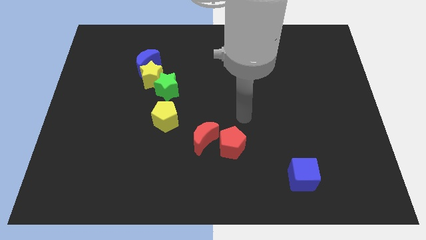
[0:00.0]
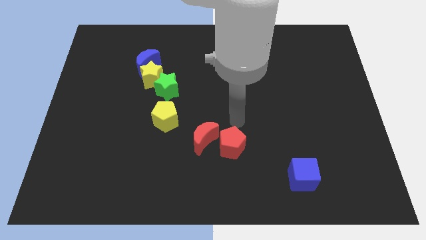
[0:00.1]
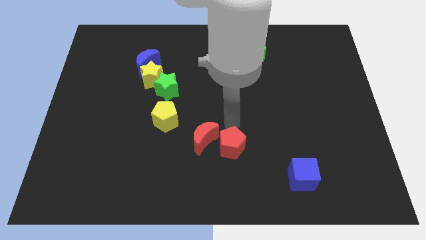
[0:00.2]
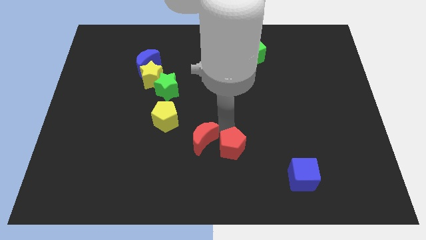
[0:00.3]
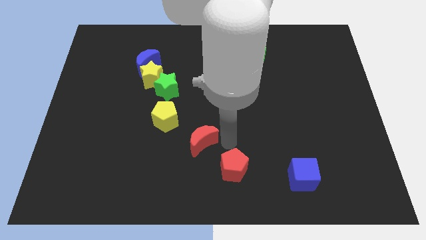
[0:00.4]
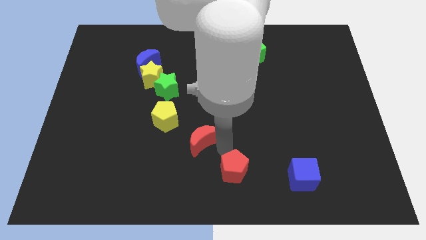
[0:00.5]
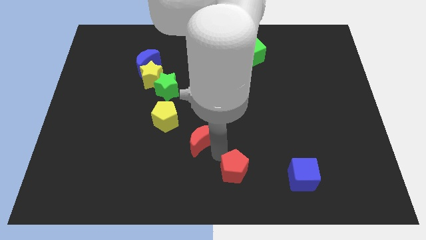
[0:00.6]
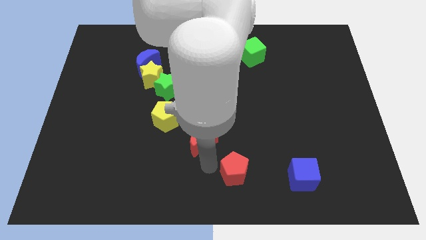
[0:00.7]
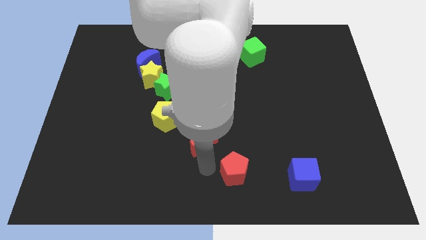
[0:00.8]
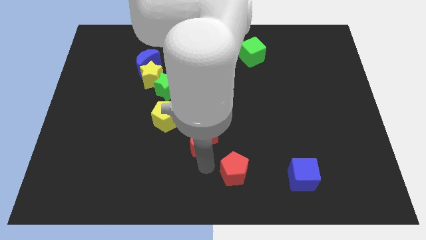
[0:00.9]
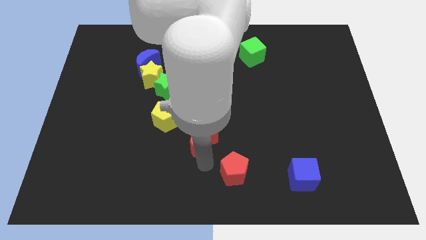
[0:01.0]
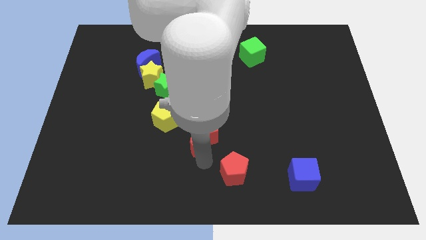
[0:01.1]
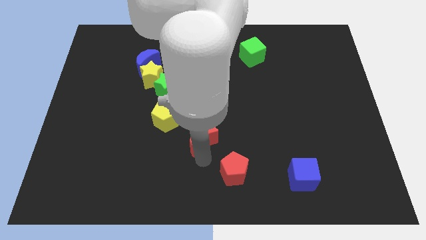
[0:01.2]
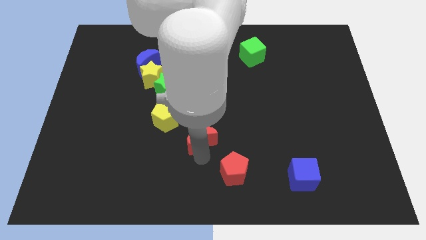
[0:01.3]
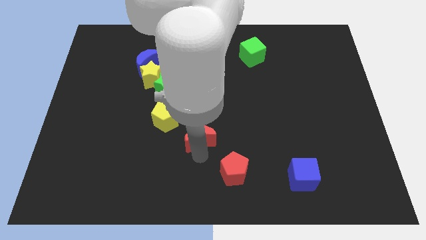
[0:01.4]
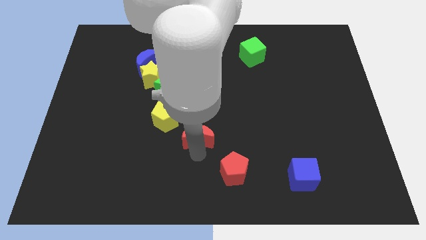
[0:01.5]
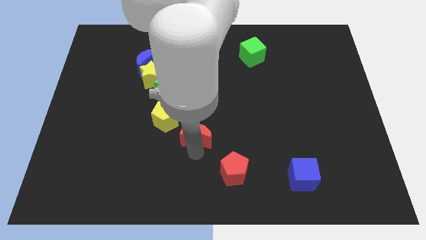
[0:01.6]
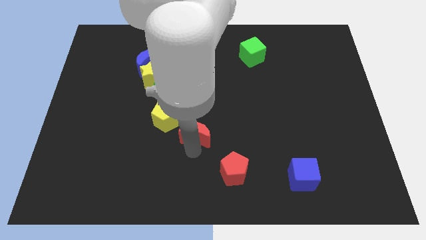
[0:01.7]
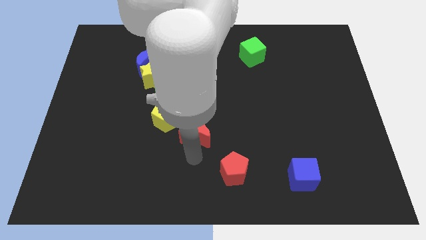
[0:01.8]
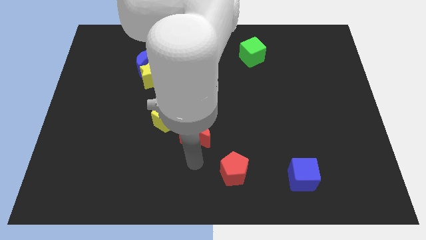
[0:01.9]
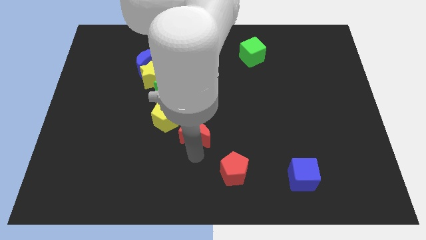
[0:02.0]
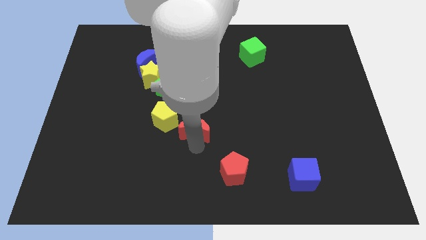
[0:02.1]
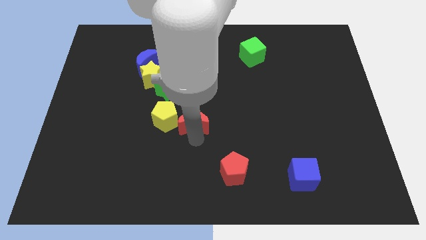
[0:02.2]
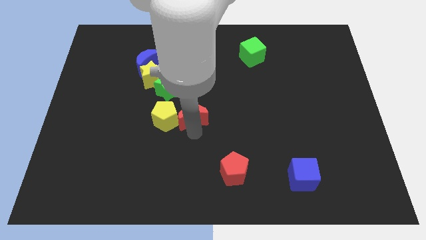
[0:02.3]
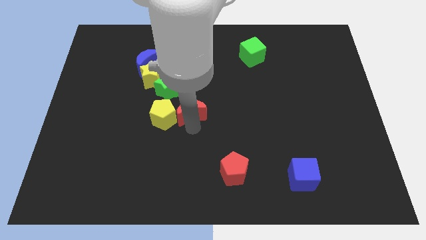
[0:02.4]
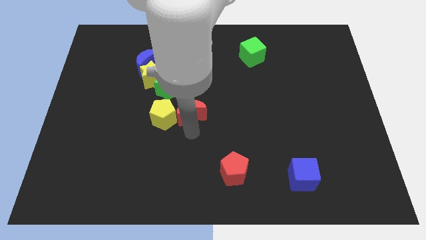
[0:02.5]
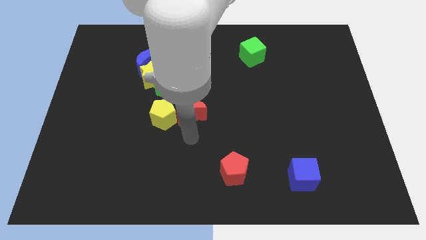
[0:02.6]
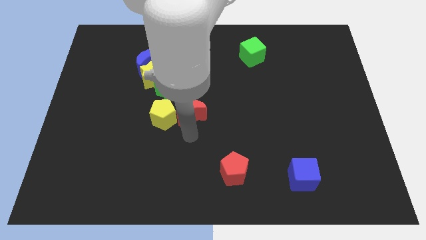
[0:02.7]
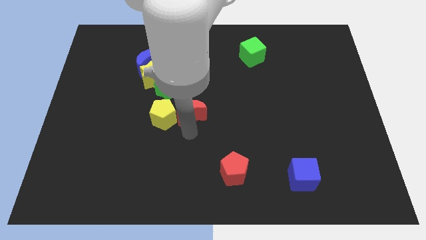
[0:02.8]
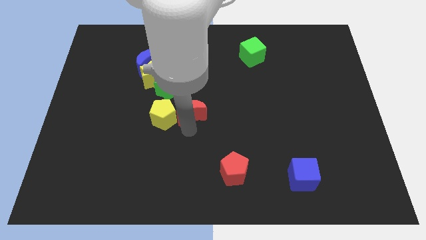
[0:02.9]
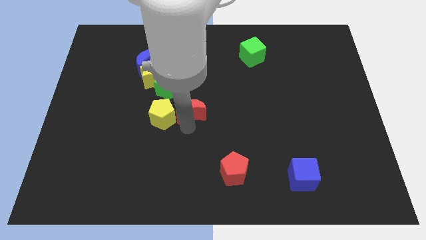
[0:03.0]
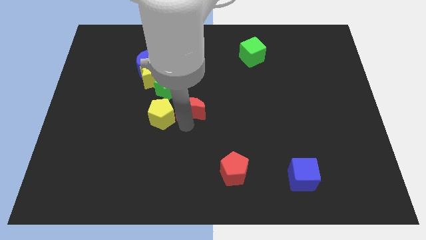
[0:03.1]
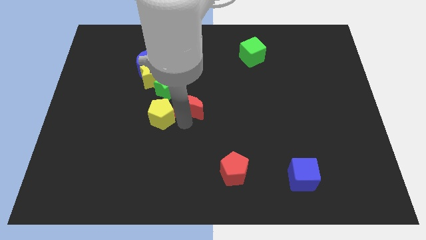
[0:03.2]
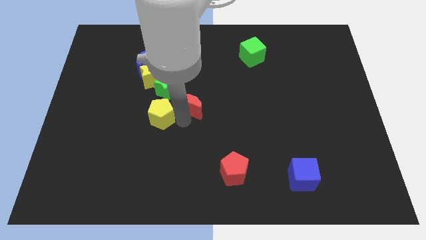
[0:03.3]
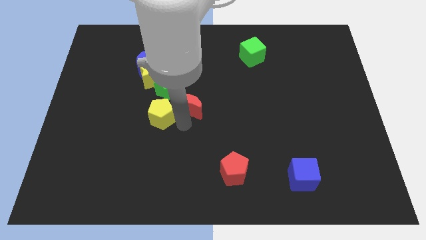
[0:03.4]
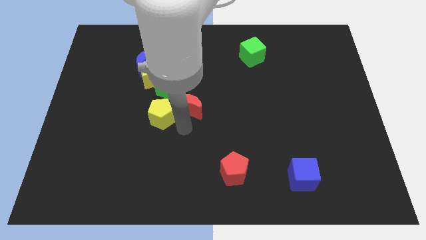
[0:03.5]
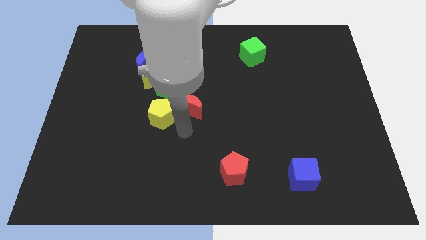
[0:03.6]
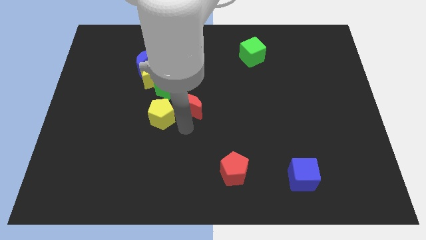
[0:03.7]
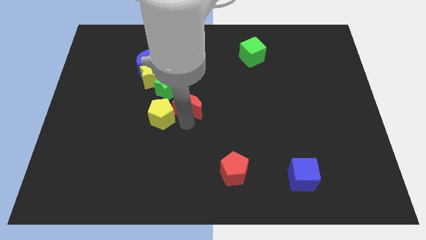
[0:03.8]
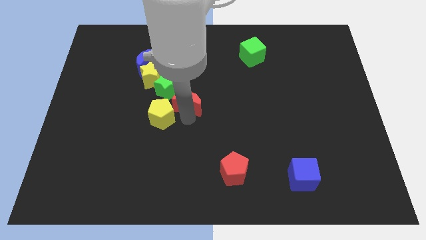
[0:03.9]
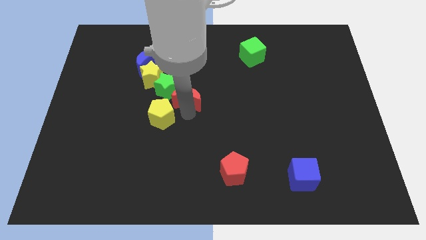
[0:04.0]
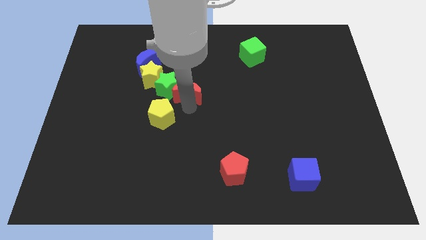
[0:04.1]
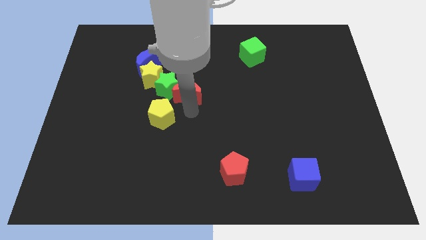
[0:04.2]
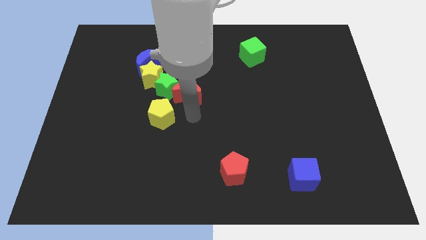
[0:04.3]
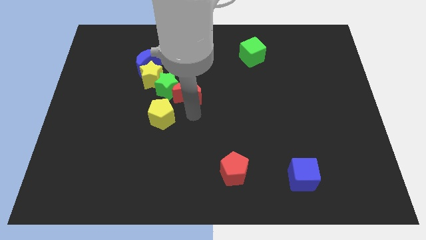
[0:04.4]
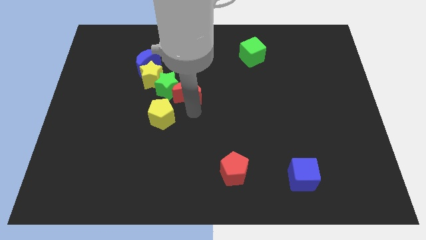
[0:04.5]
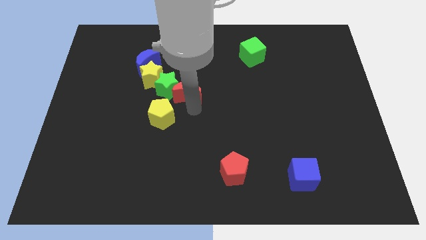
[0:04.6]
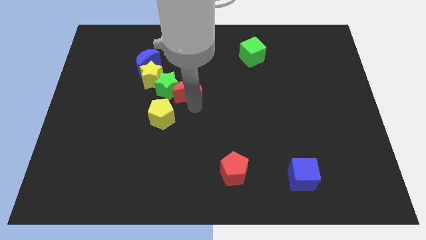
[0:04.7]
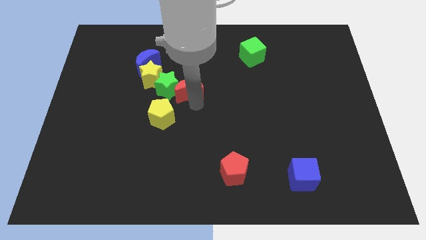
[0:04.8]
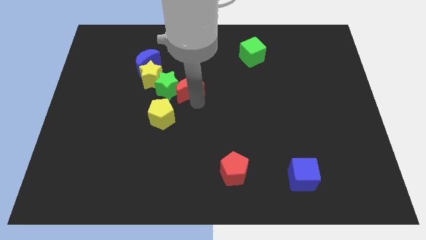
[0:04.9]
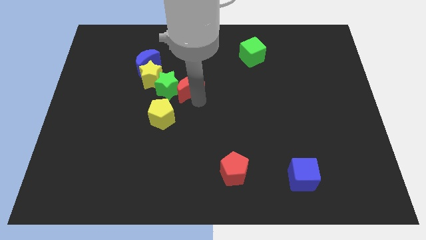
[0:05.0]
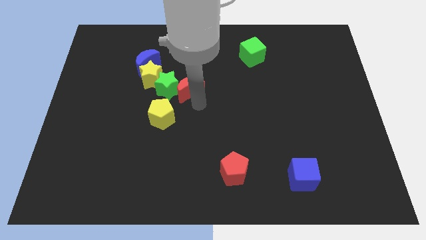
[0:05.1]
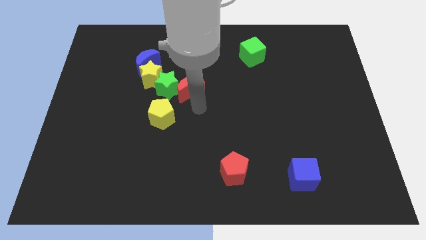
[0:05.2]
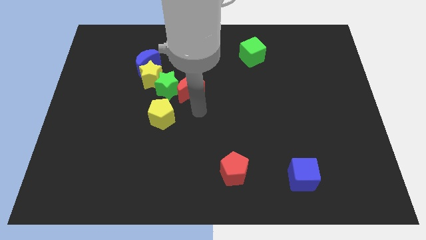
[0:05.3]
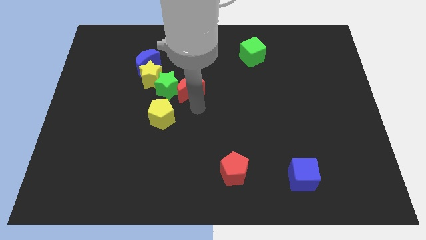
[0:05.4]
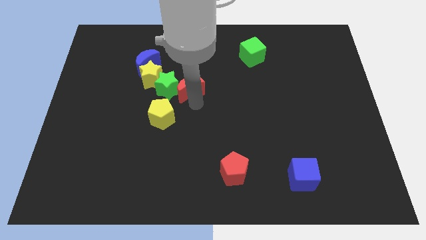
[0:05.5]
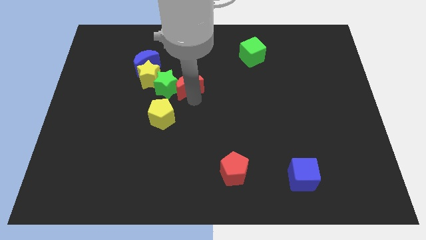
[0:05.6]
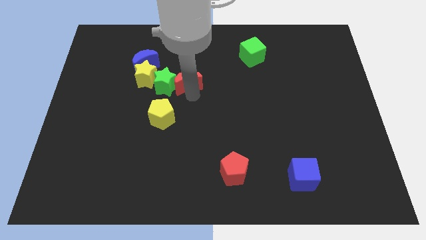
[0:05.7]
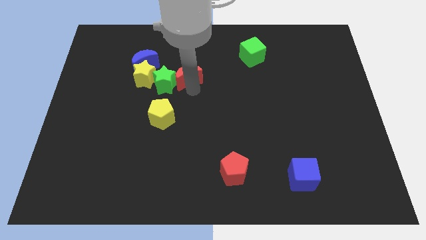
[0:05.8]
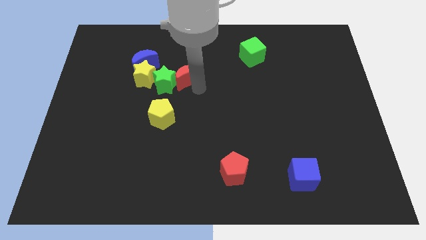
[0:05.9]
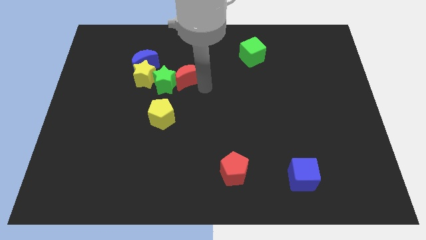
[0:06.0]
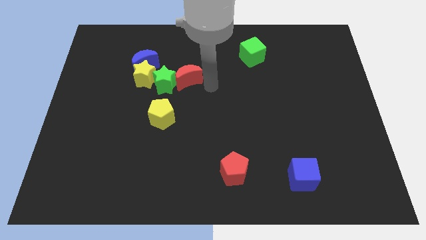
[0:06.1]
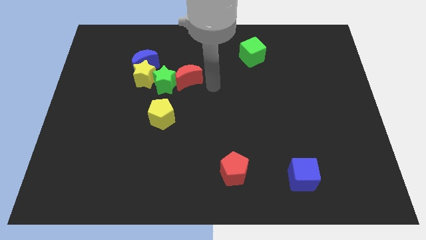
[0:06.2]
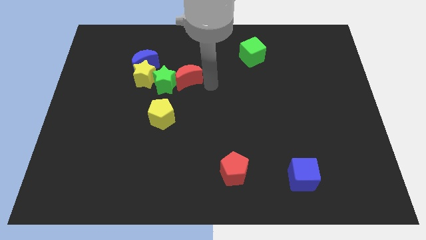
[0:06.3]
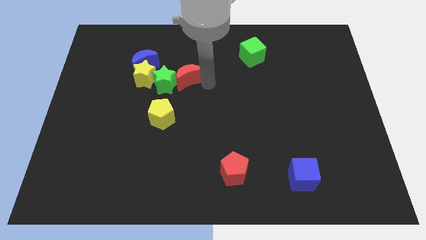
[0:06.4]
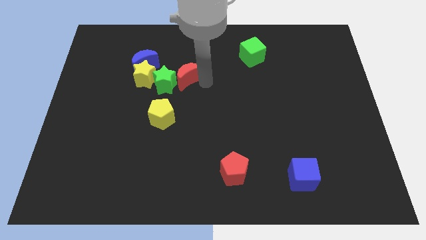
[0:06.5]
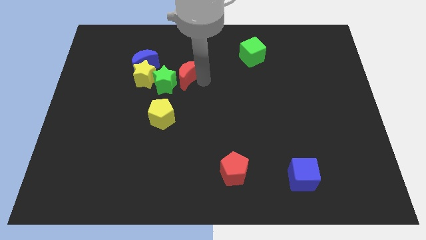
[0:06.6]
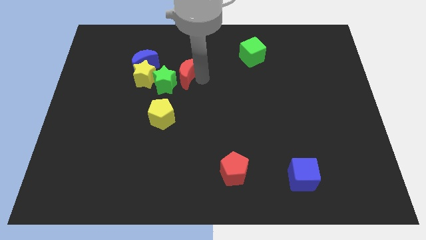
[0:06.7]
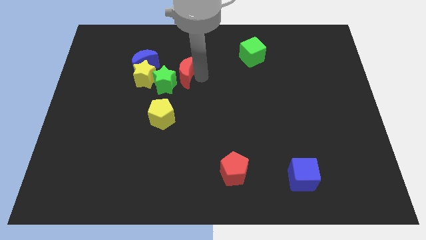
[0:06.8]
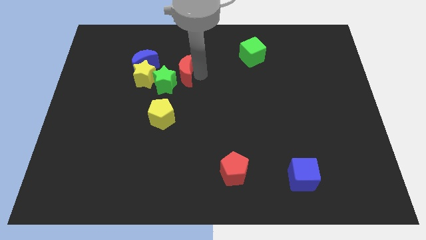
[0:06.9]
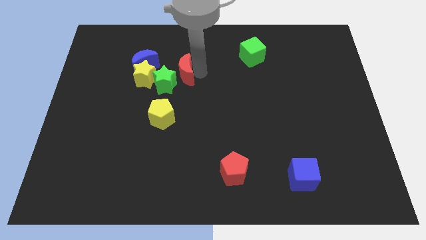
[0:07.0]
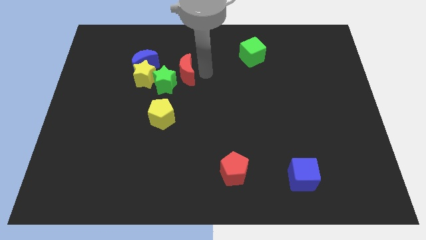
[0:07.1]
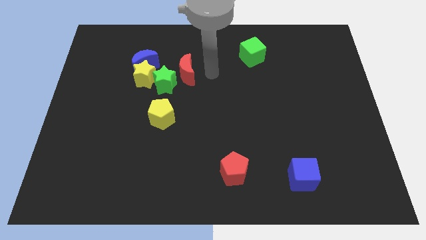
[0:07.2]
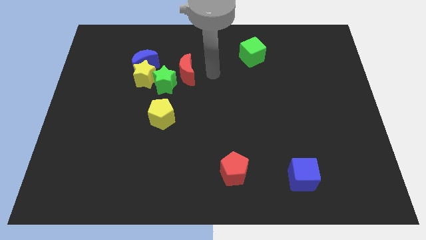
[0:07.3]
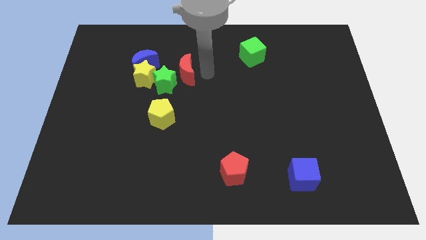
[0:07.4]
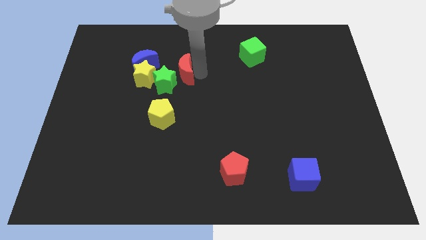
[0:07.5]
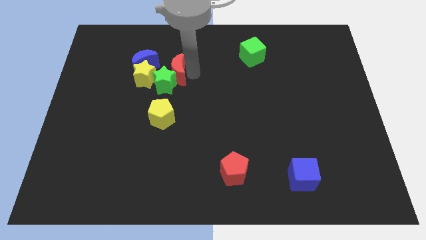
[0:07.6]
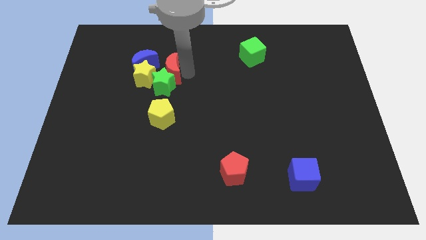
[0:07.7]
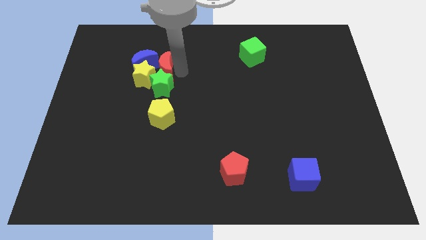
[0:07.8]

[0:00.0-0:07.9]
slide the red moon next to the yellow star
